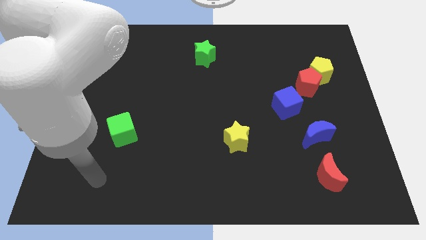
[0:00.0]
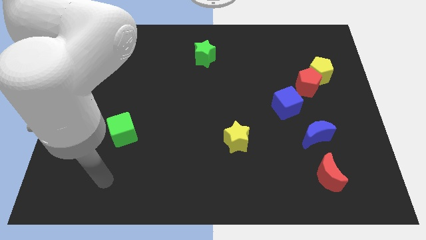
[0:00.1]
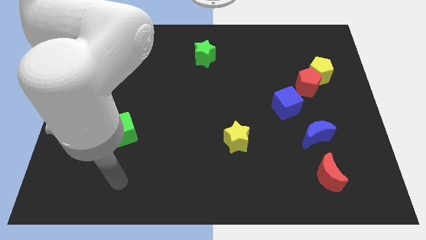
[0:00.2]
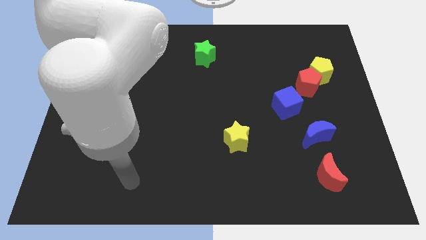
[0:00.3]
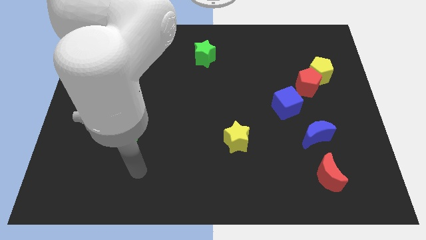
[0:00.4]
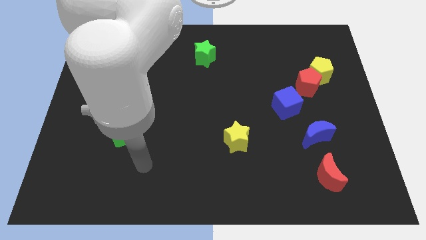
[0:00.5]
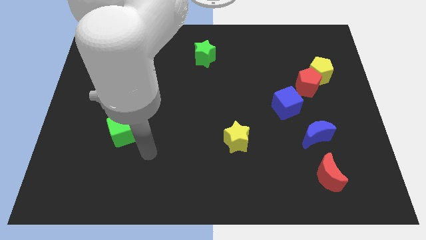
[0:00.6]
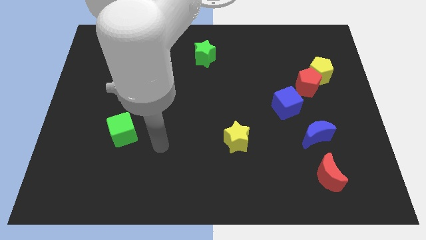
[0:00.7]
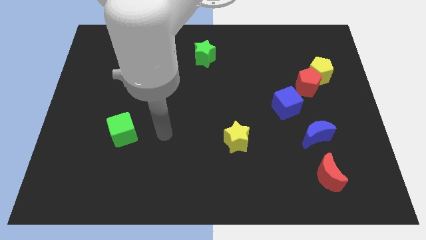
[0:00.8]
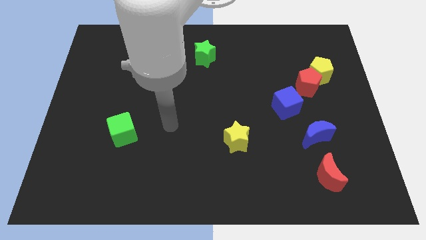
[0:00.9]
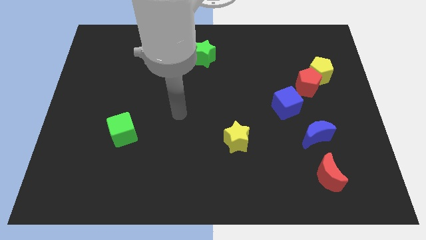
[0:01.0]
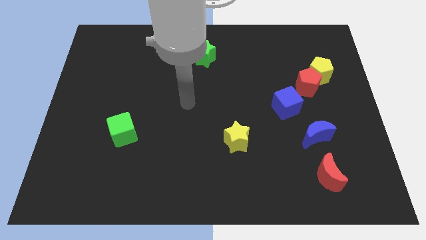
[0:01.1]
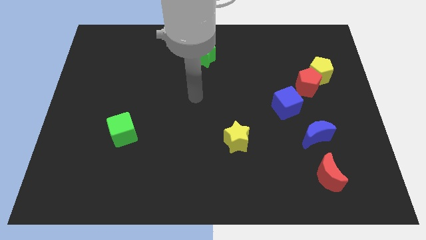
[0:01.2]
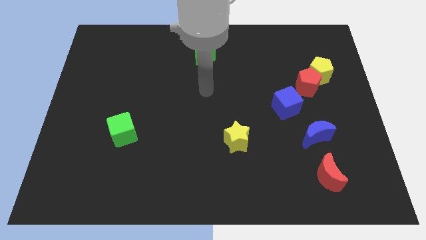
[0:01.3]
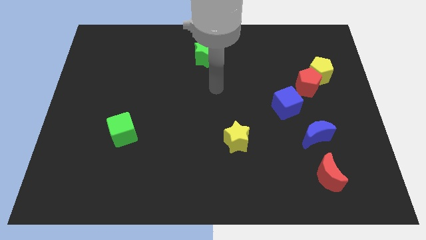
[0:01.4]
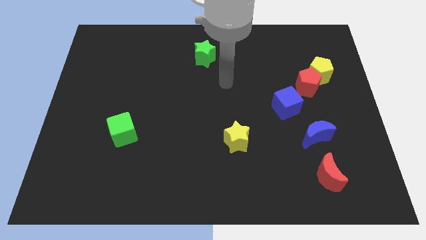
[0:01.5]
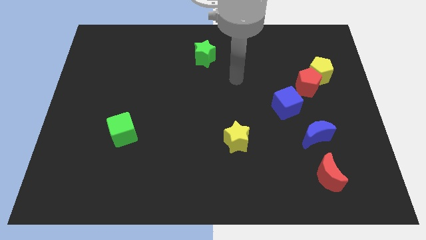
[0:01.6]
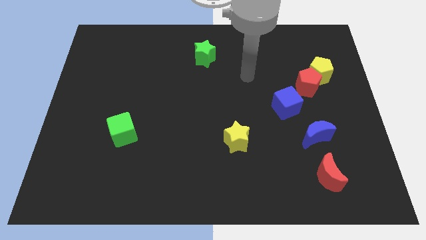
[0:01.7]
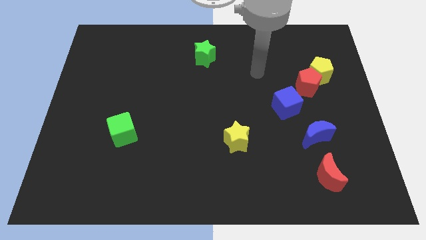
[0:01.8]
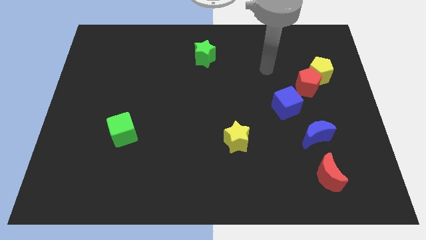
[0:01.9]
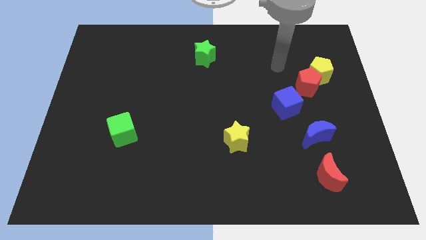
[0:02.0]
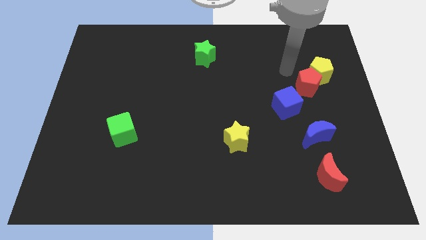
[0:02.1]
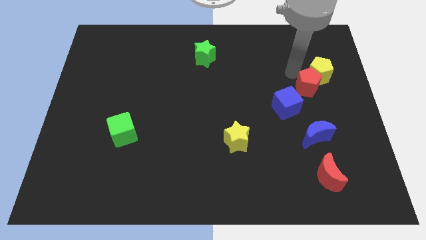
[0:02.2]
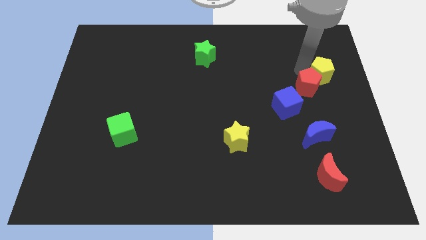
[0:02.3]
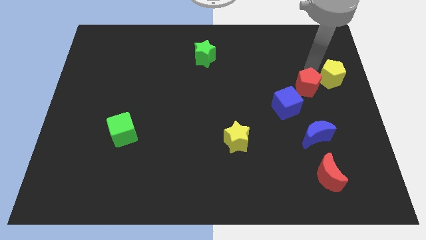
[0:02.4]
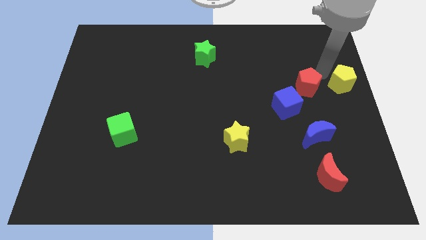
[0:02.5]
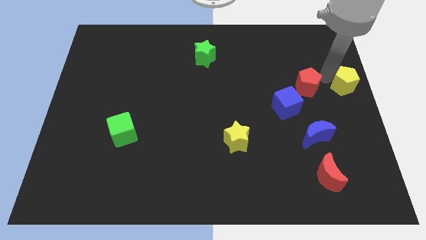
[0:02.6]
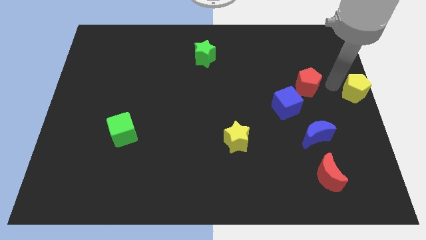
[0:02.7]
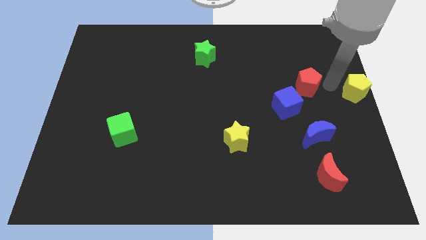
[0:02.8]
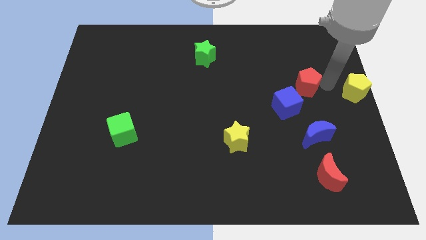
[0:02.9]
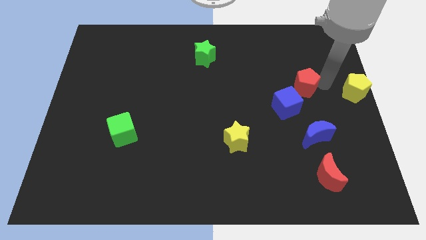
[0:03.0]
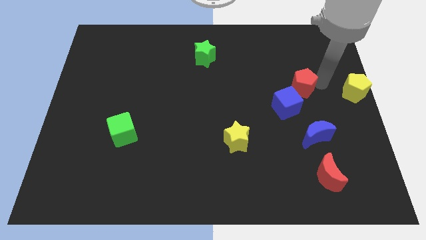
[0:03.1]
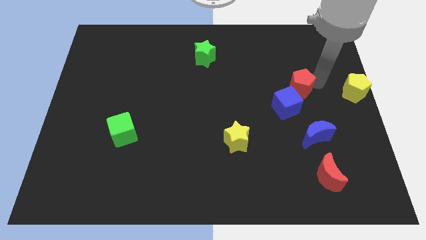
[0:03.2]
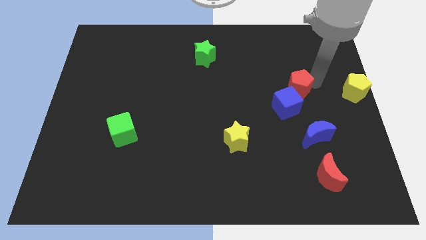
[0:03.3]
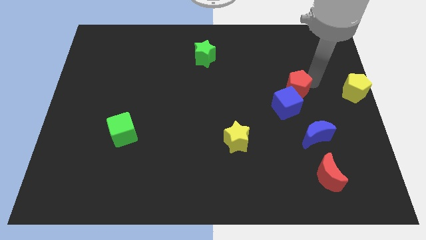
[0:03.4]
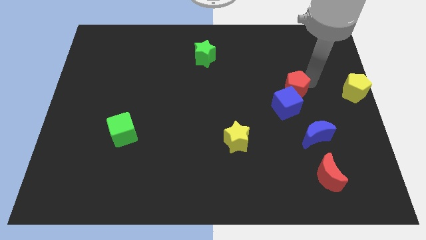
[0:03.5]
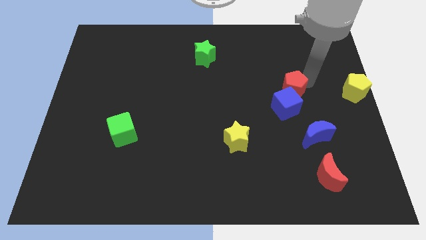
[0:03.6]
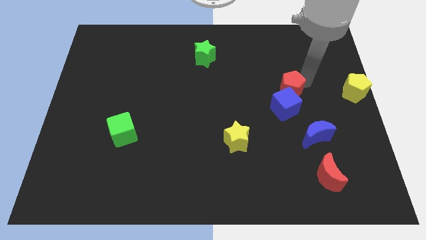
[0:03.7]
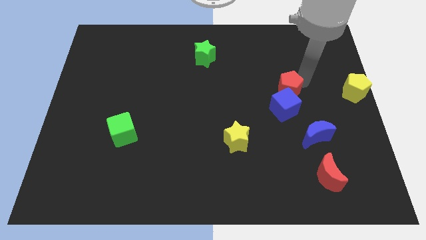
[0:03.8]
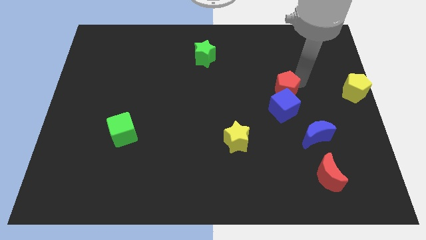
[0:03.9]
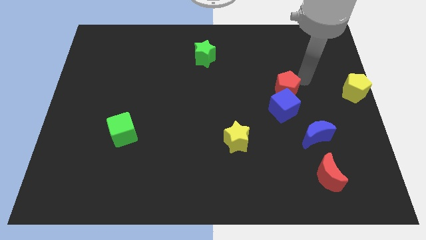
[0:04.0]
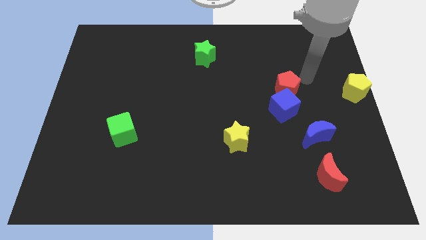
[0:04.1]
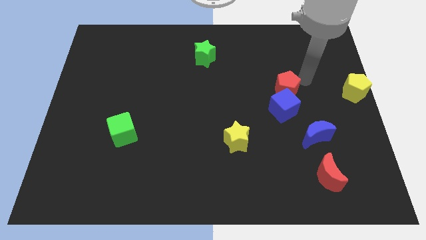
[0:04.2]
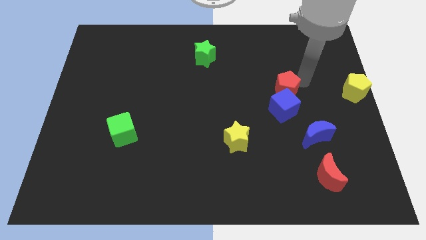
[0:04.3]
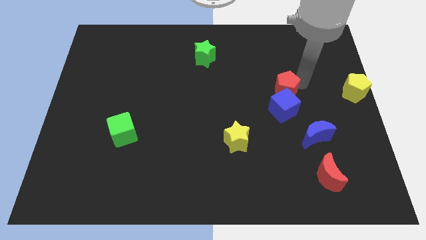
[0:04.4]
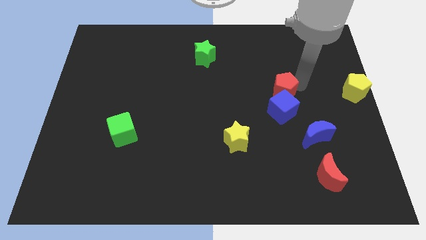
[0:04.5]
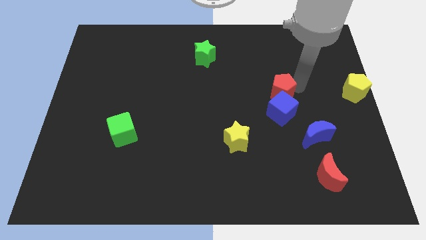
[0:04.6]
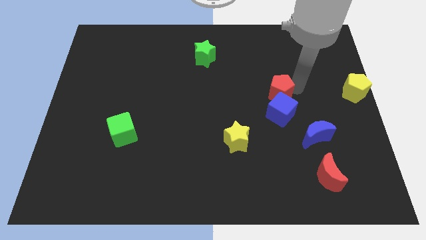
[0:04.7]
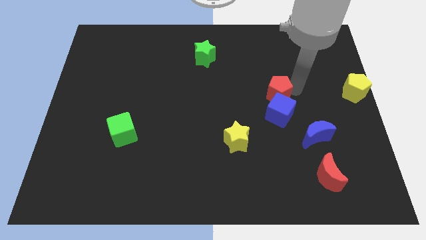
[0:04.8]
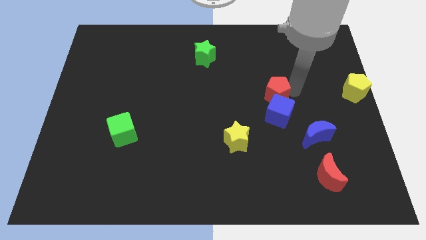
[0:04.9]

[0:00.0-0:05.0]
push the red pentagon downwards and to the left diagonally slightly

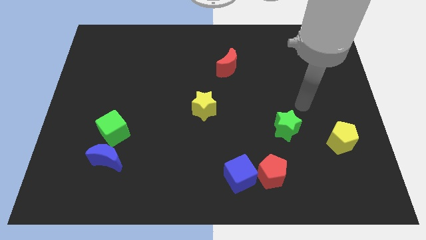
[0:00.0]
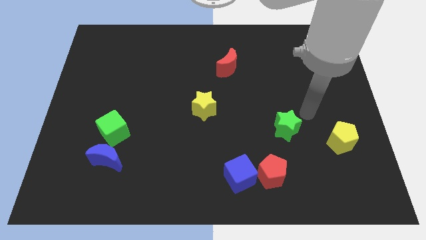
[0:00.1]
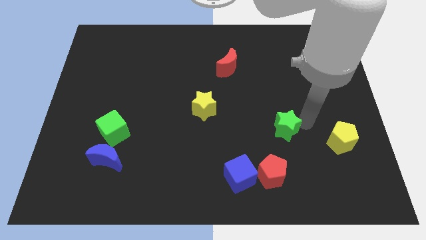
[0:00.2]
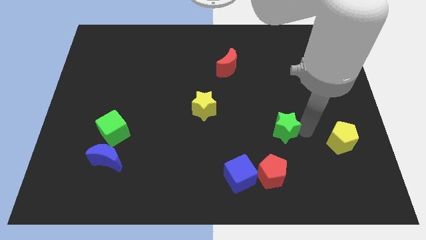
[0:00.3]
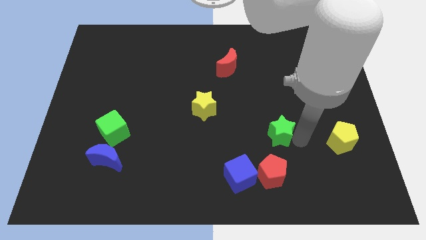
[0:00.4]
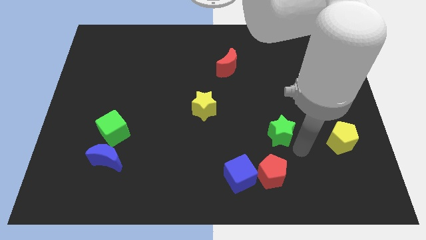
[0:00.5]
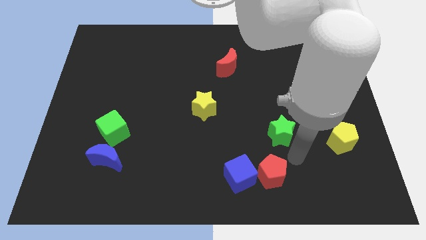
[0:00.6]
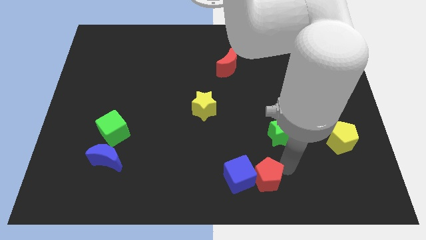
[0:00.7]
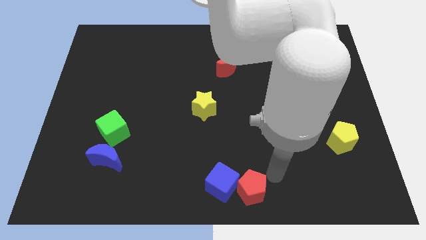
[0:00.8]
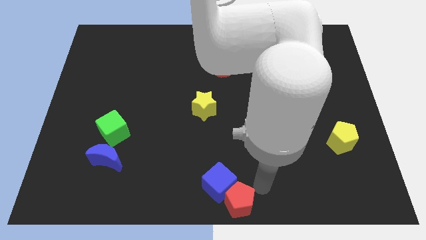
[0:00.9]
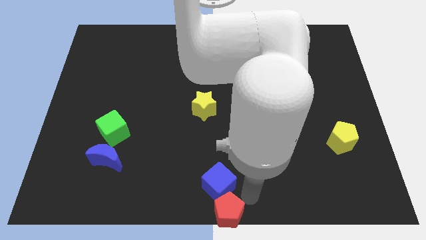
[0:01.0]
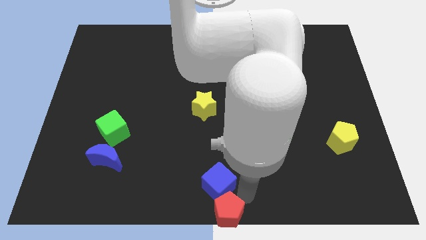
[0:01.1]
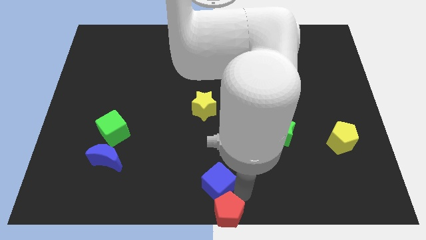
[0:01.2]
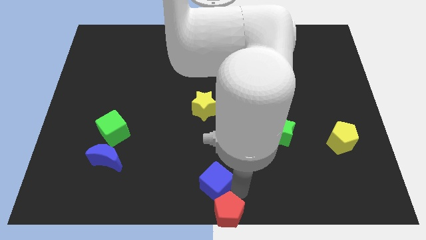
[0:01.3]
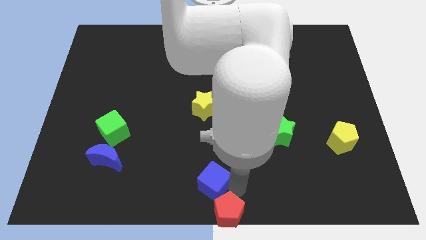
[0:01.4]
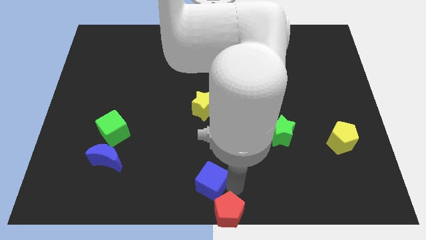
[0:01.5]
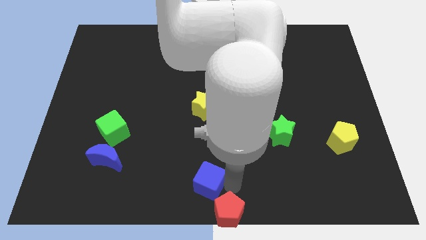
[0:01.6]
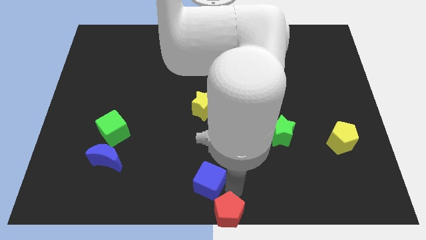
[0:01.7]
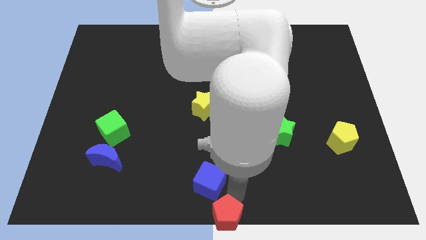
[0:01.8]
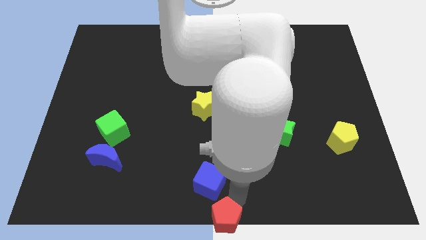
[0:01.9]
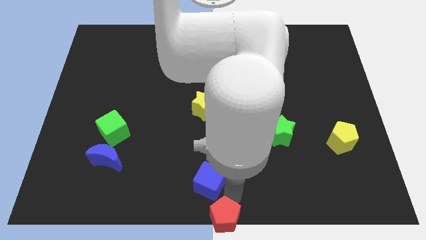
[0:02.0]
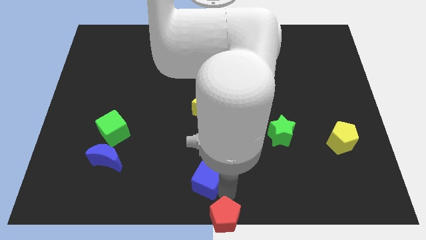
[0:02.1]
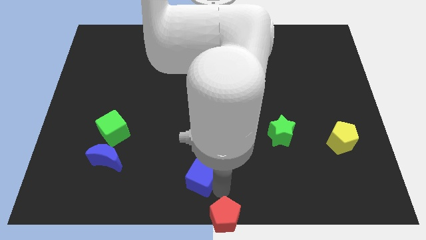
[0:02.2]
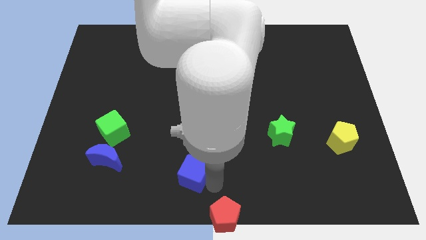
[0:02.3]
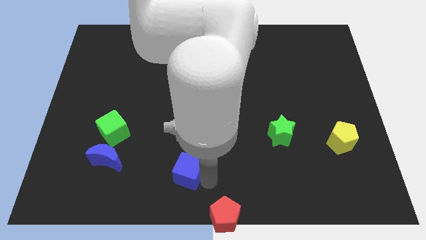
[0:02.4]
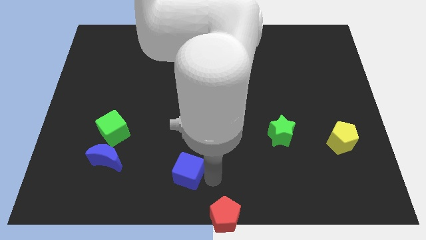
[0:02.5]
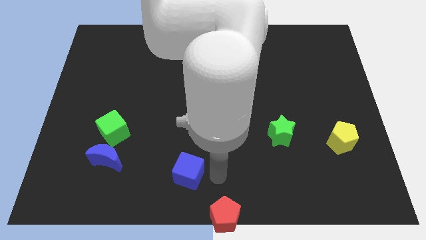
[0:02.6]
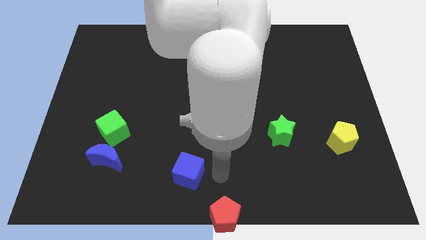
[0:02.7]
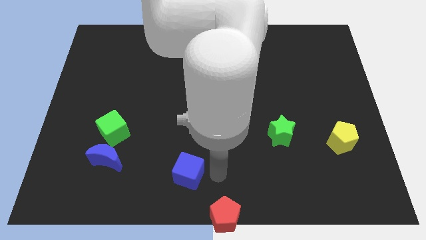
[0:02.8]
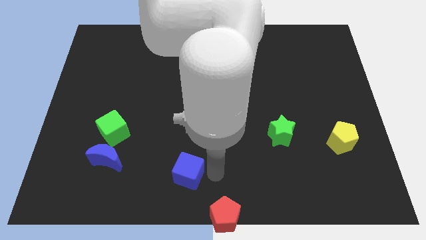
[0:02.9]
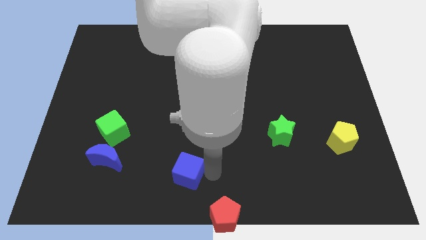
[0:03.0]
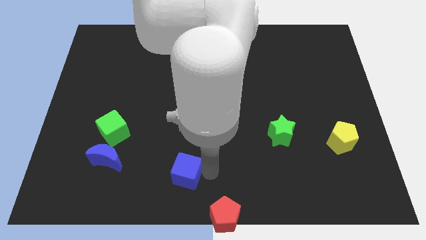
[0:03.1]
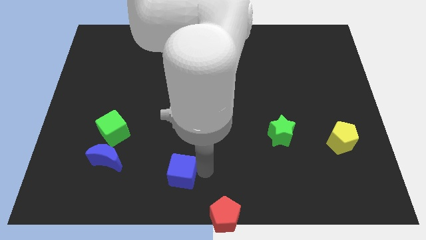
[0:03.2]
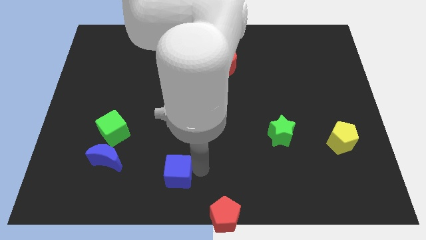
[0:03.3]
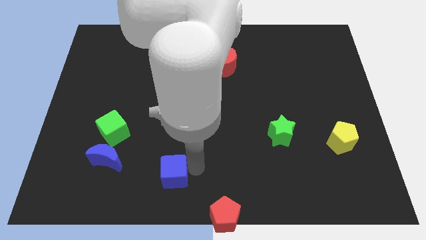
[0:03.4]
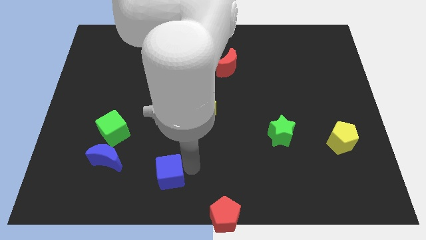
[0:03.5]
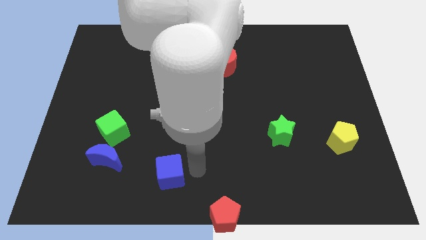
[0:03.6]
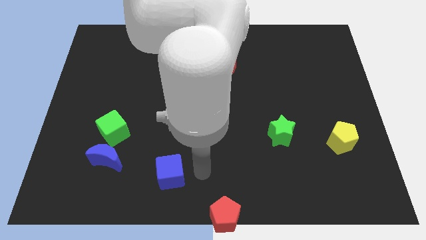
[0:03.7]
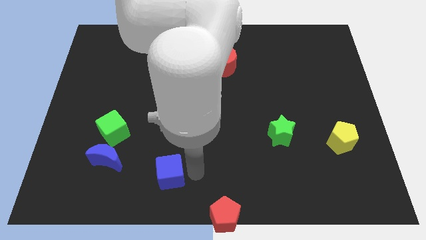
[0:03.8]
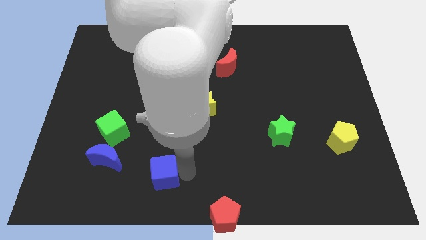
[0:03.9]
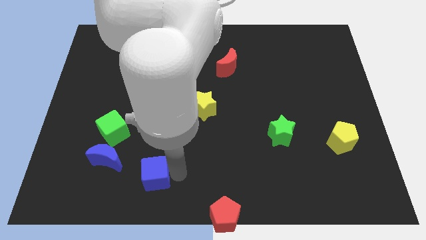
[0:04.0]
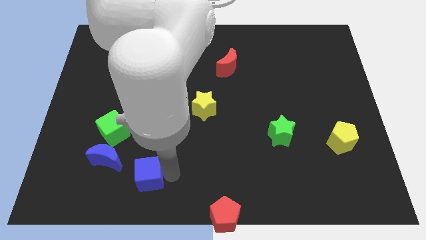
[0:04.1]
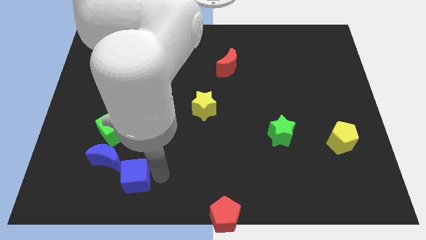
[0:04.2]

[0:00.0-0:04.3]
move the blue cube left
